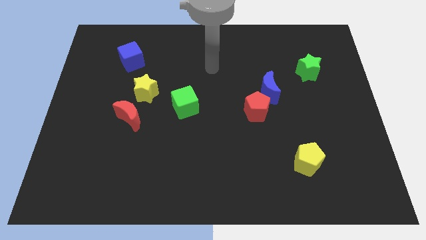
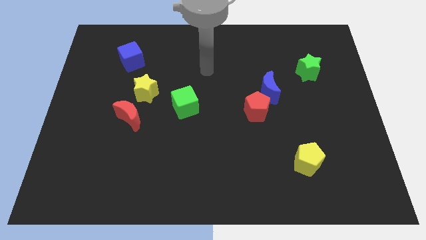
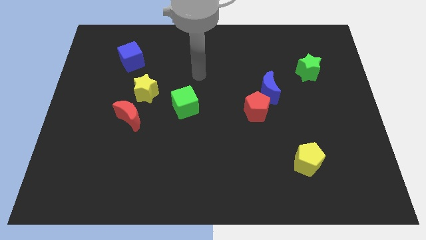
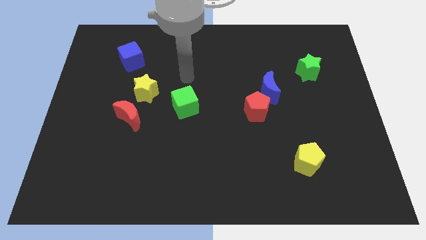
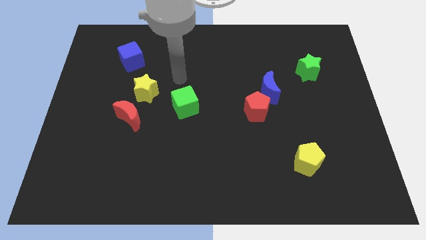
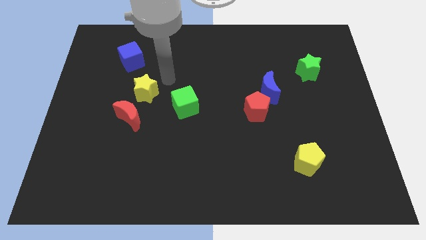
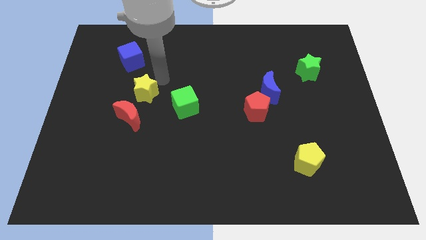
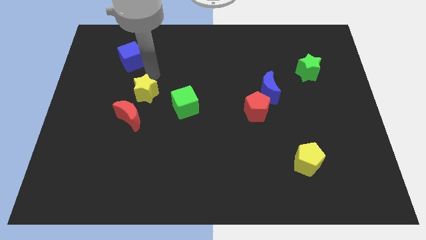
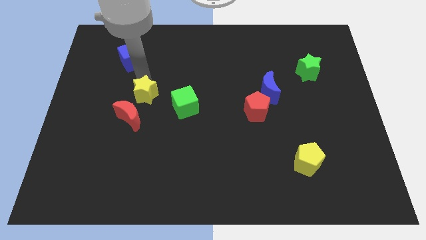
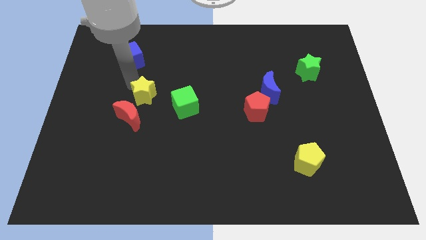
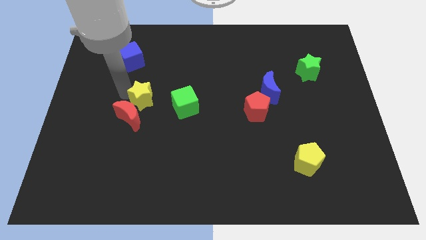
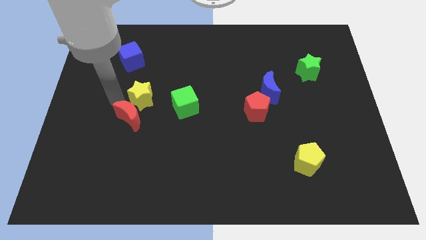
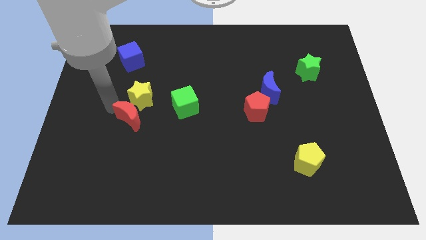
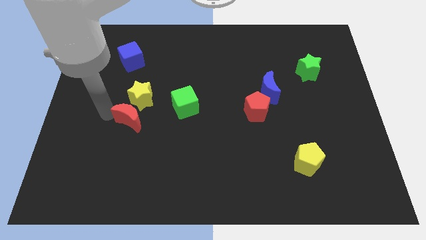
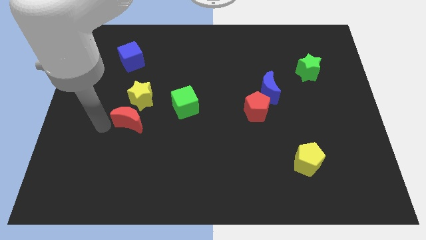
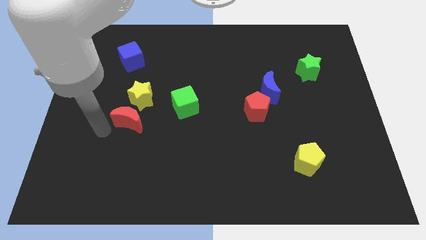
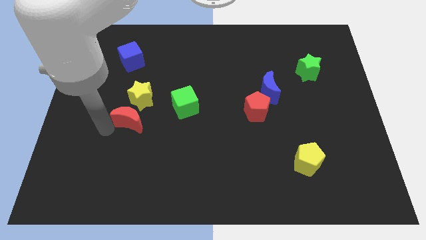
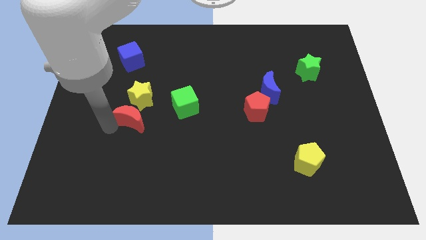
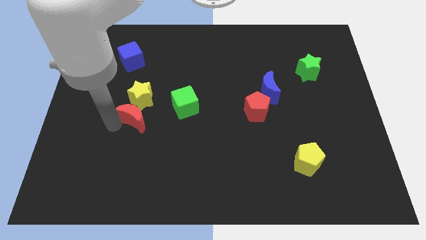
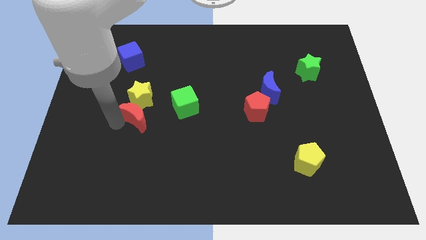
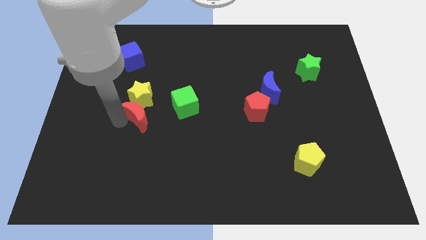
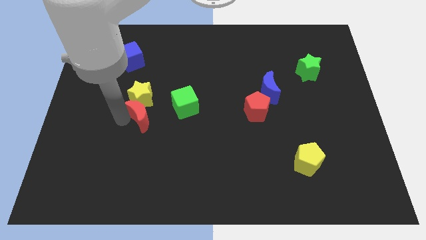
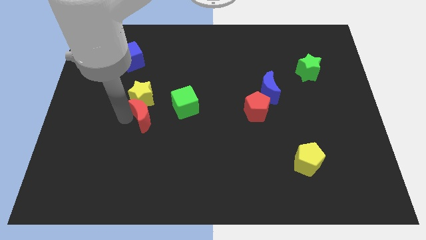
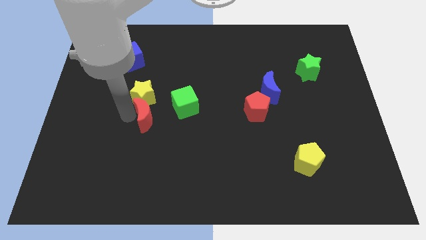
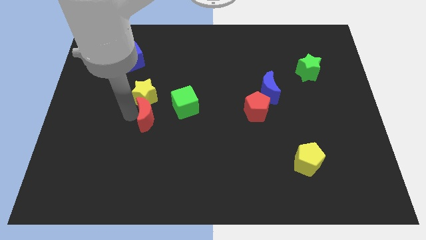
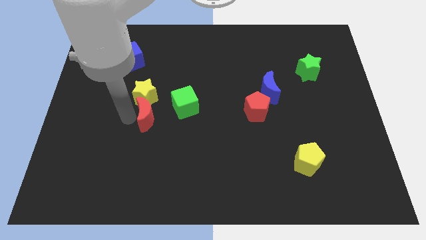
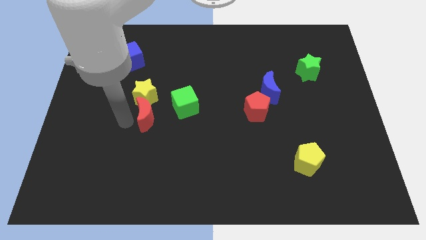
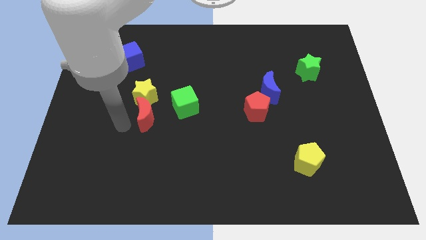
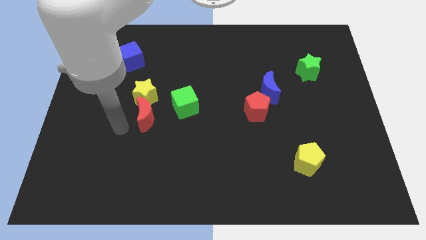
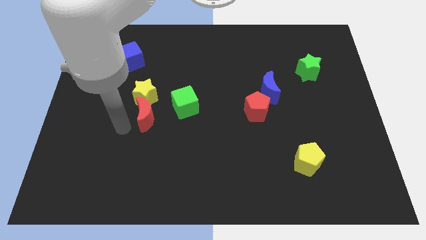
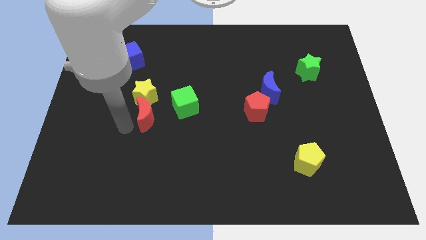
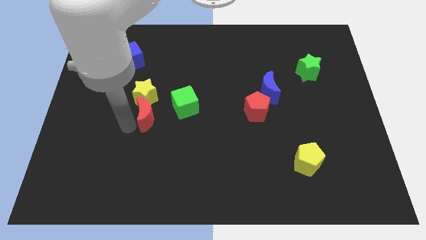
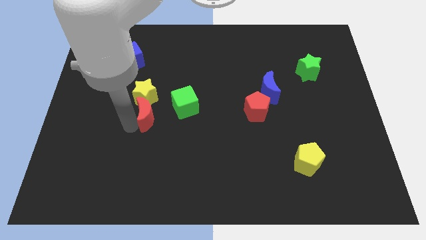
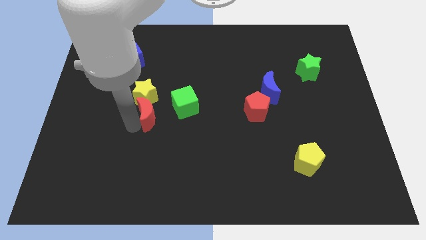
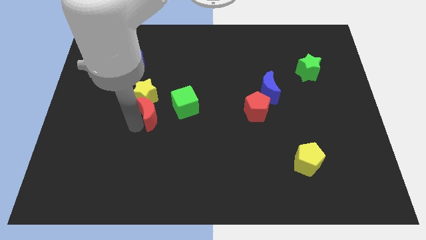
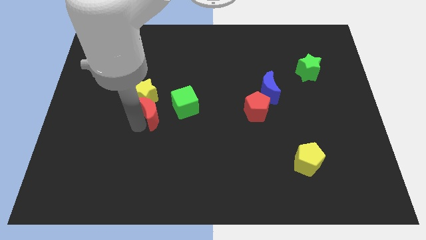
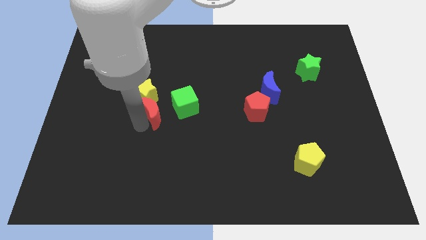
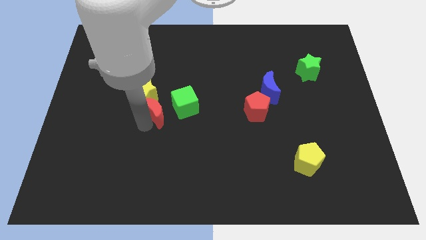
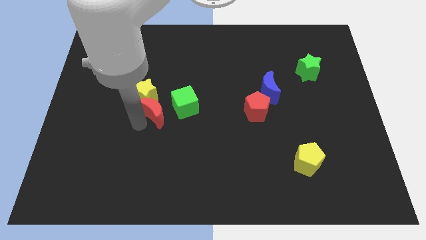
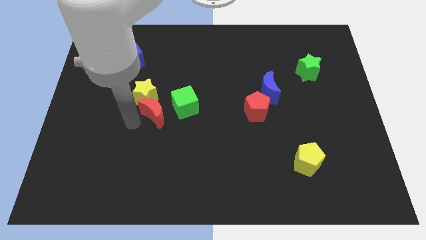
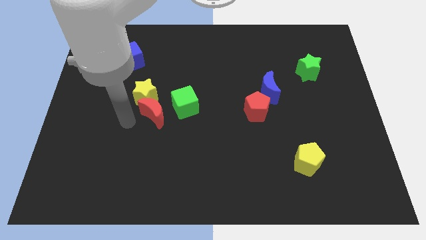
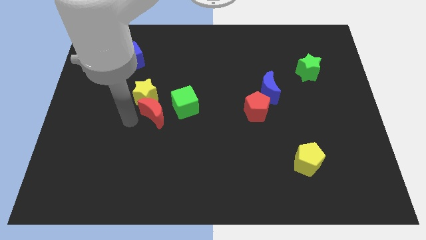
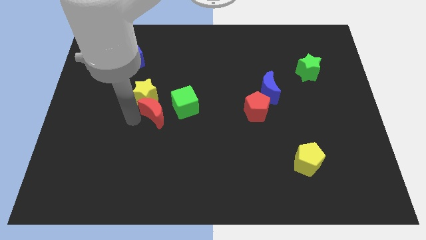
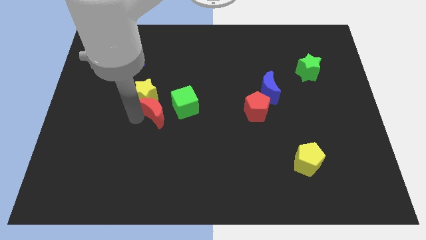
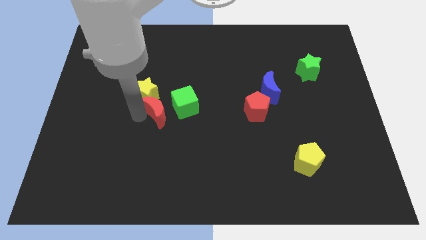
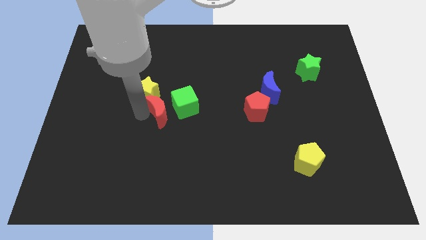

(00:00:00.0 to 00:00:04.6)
move the red moon next to the green cube

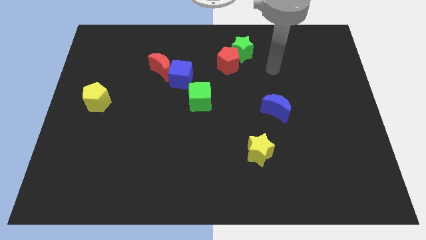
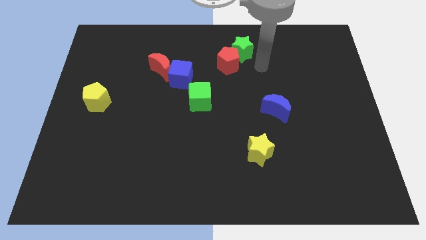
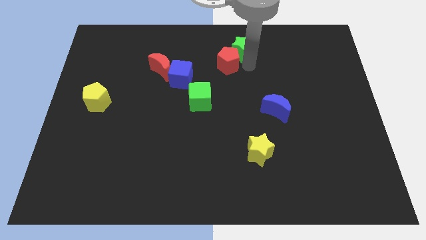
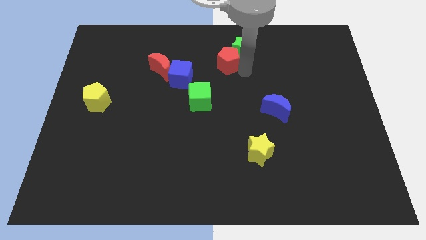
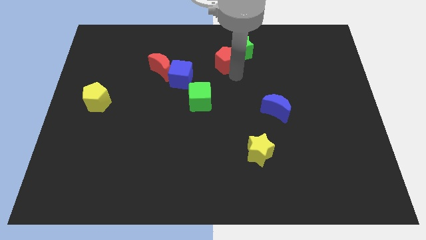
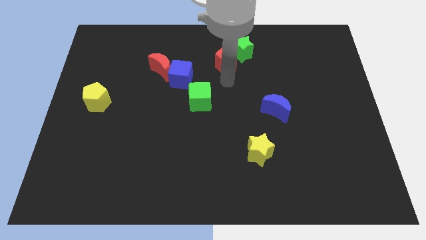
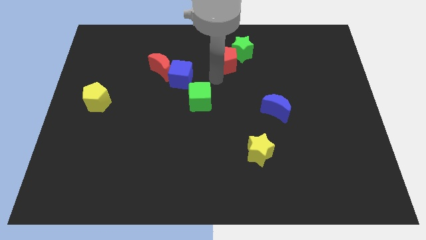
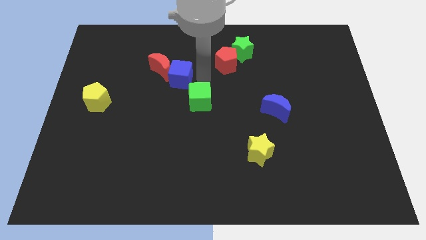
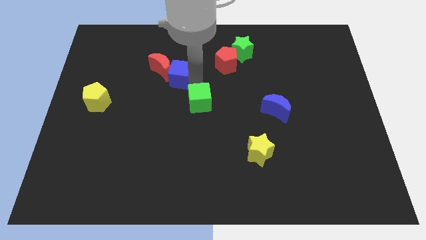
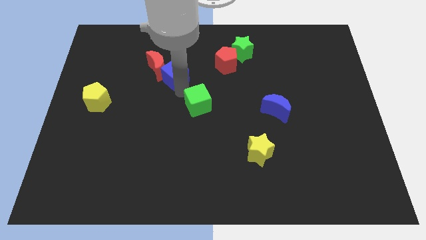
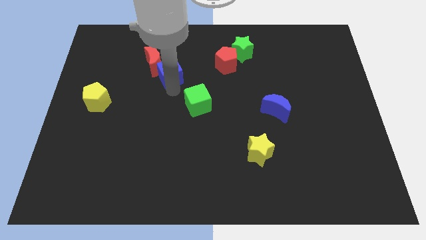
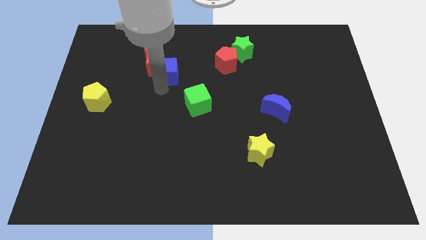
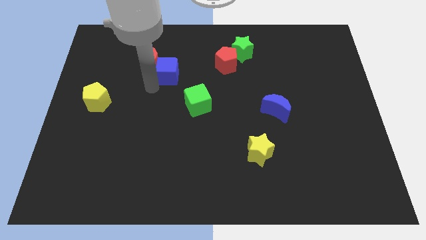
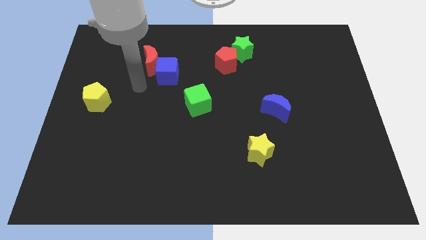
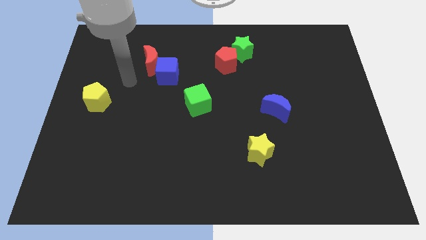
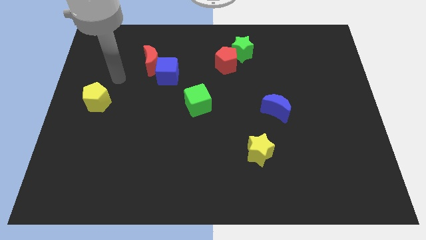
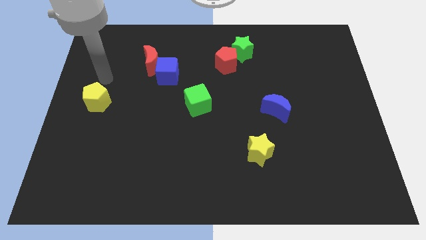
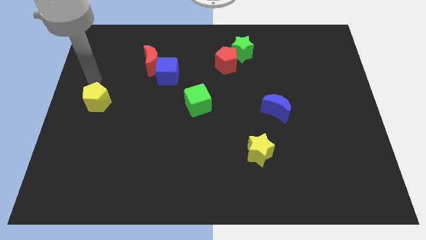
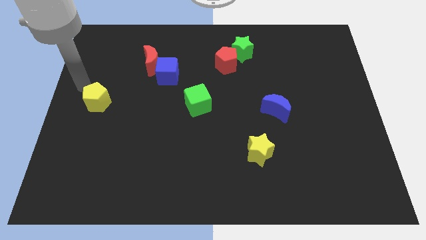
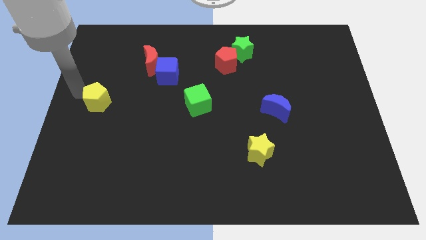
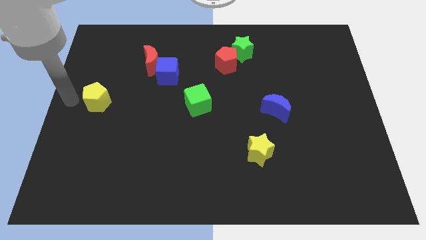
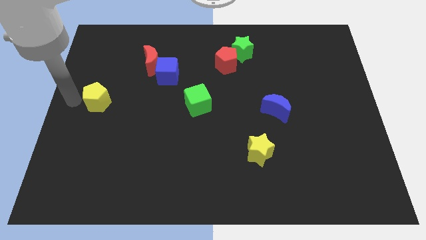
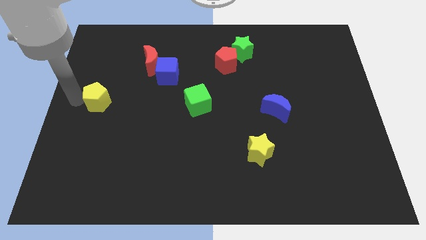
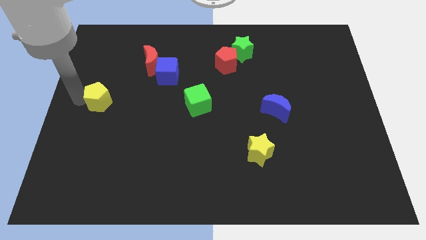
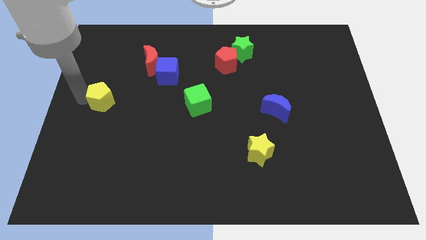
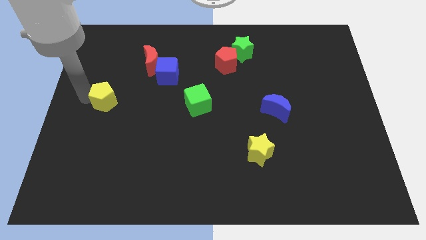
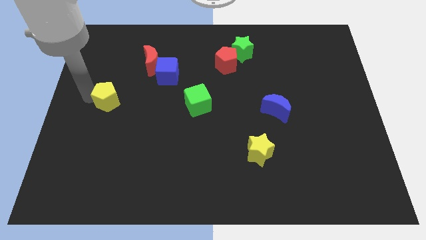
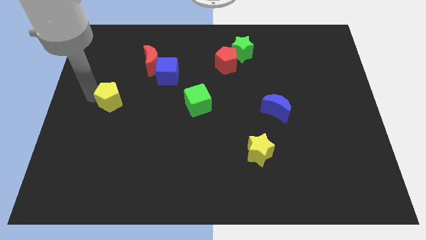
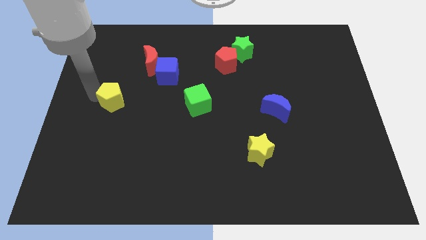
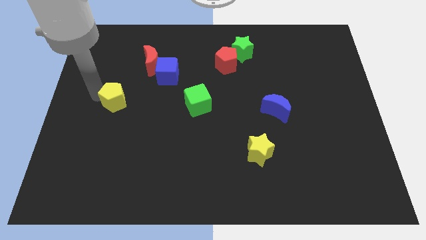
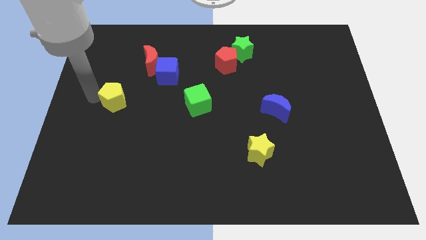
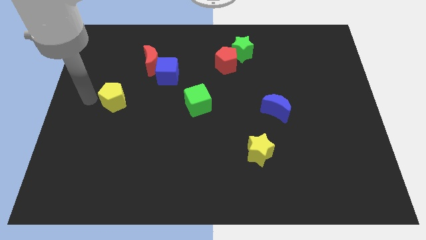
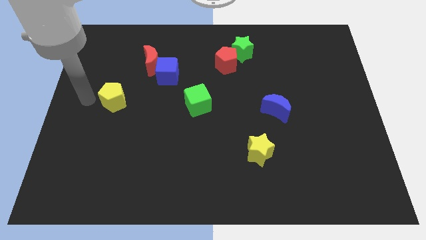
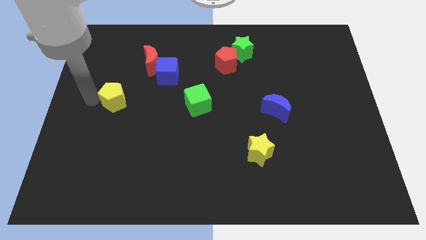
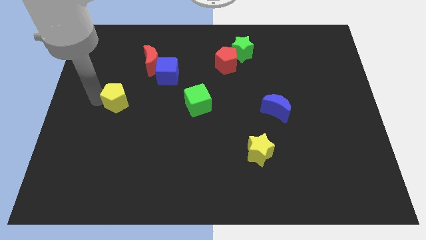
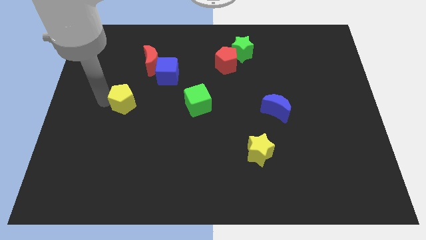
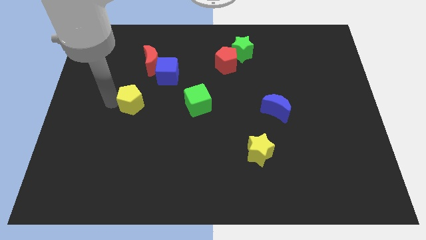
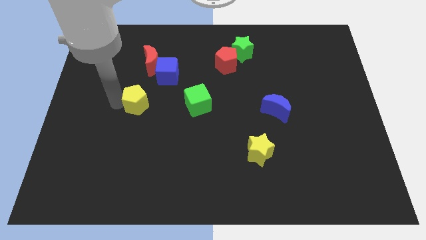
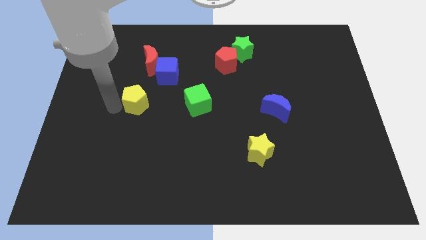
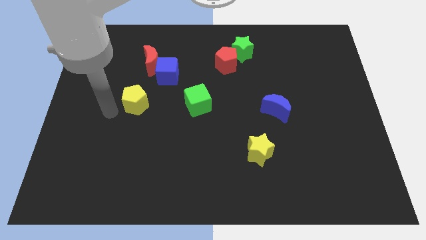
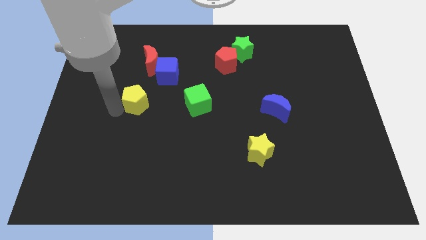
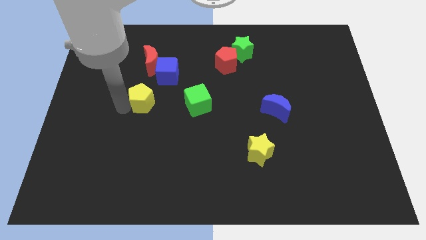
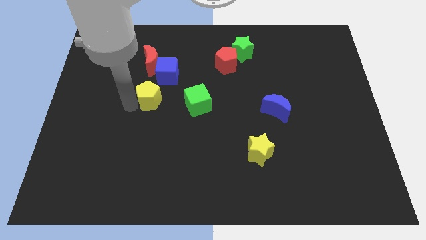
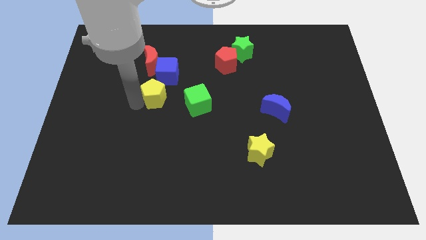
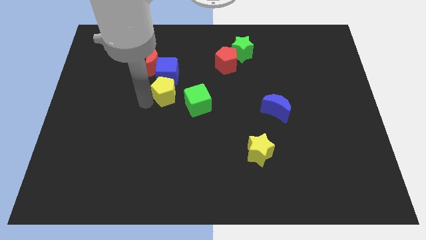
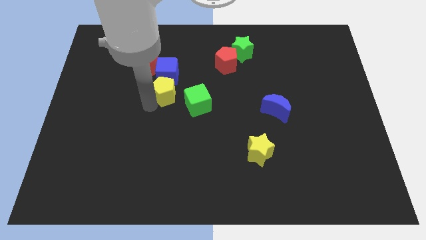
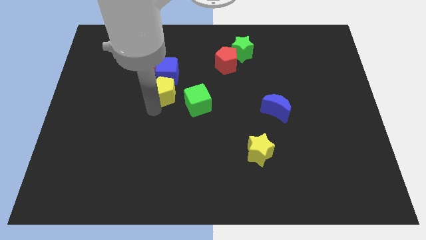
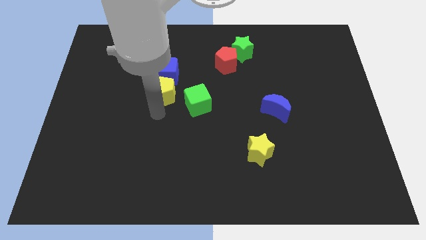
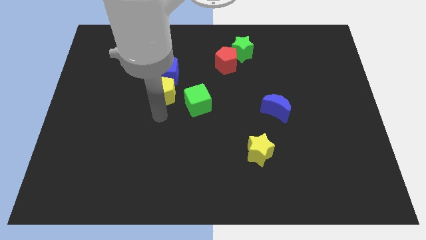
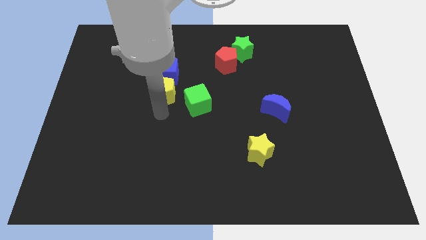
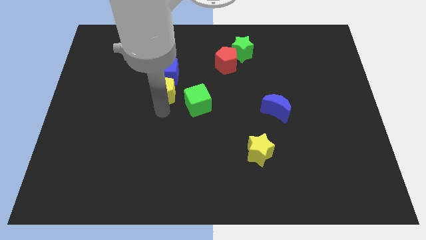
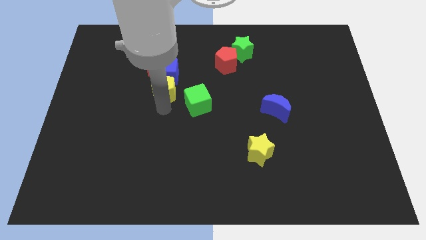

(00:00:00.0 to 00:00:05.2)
put the yellow pentagon to the blue cube
